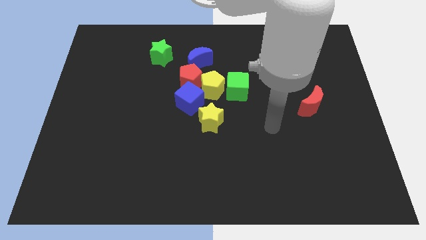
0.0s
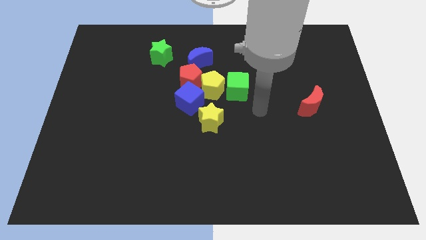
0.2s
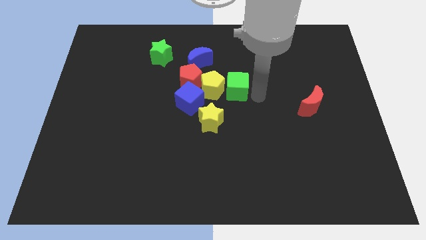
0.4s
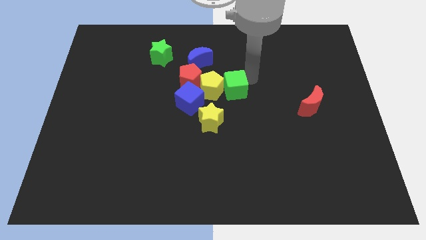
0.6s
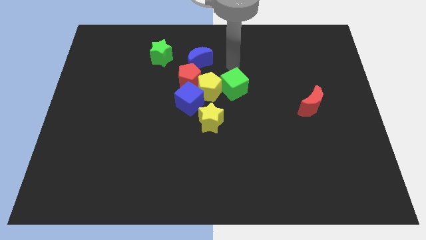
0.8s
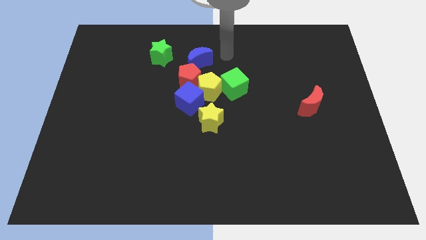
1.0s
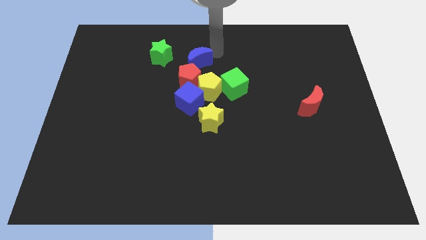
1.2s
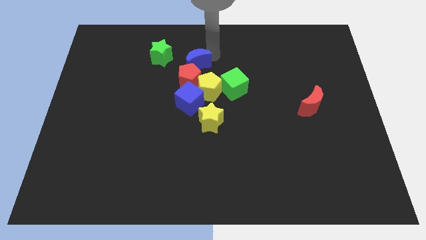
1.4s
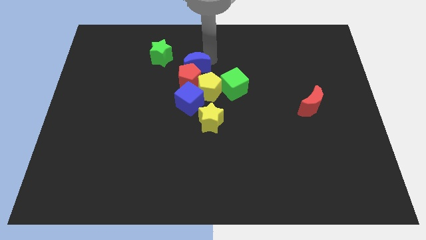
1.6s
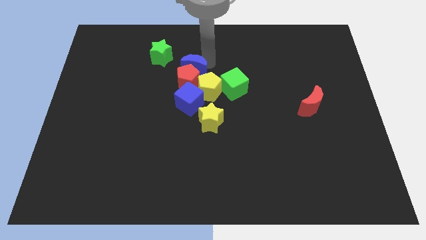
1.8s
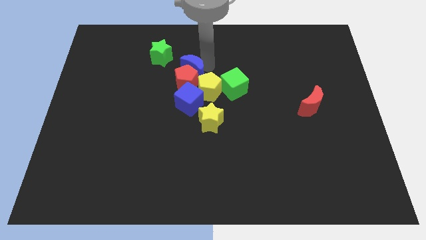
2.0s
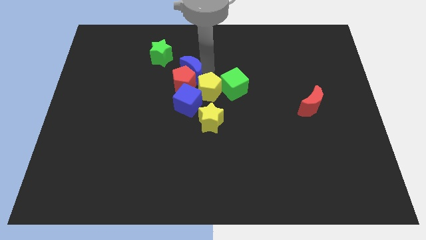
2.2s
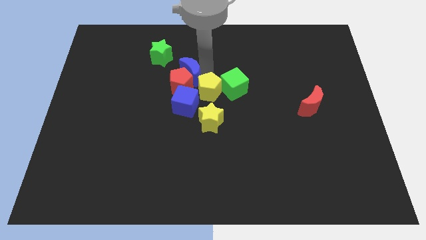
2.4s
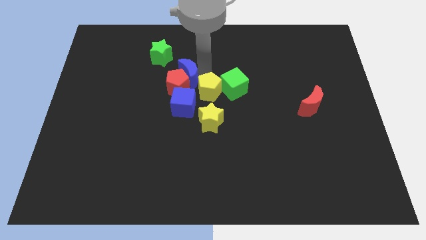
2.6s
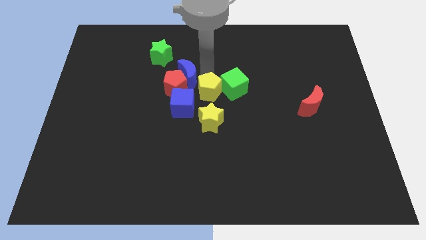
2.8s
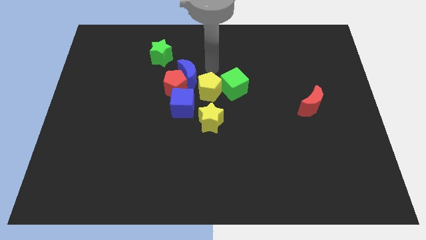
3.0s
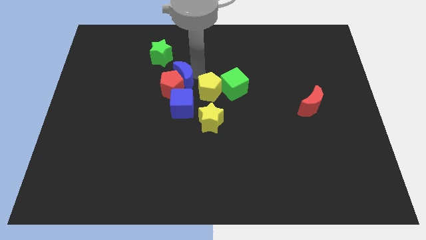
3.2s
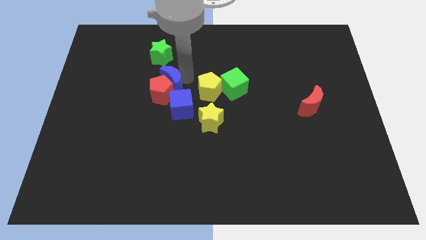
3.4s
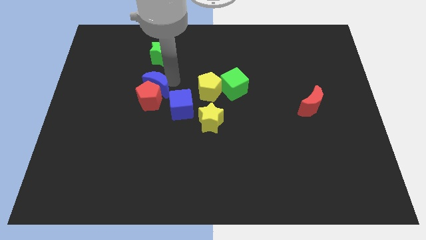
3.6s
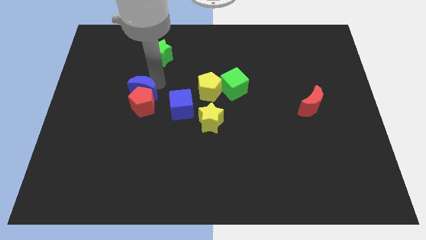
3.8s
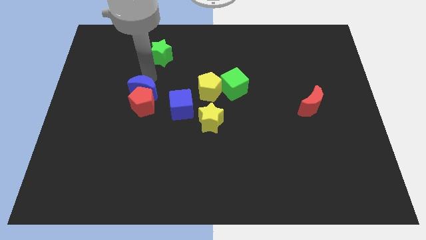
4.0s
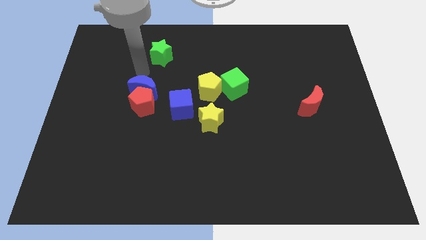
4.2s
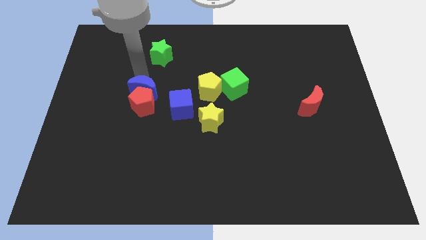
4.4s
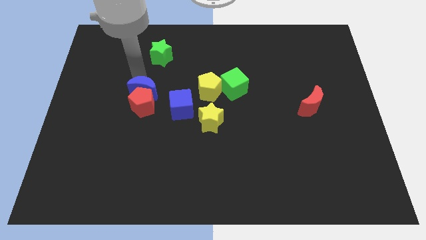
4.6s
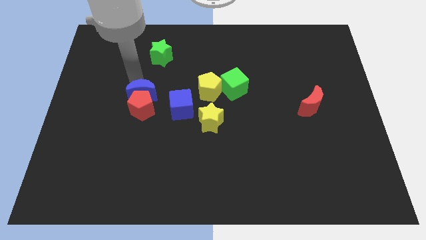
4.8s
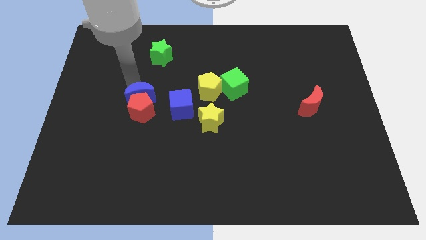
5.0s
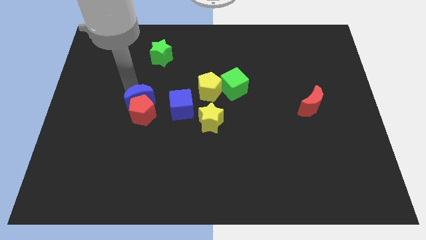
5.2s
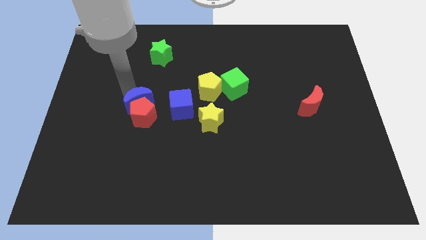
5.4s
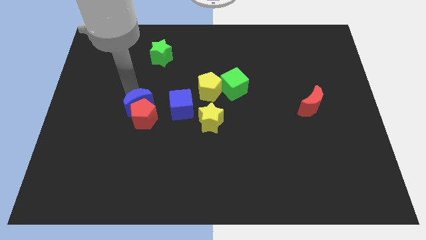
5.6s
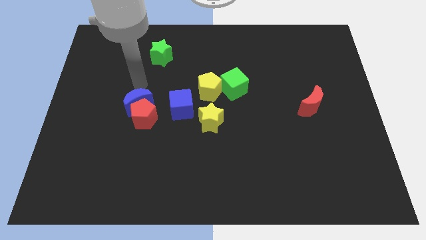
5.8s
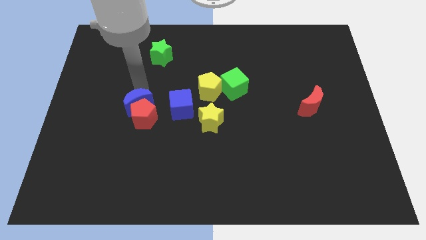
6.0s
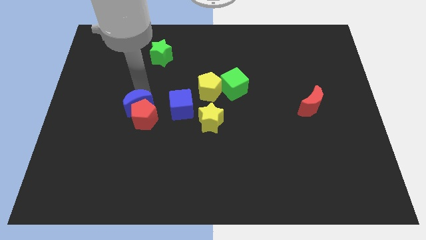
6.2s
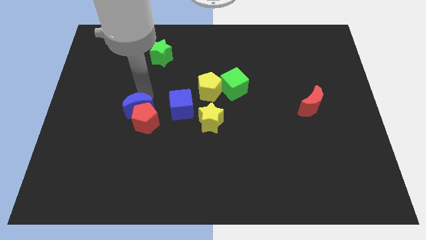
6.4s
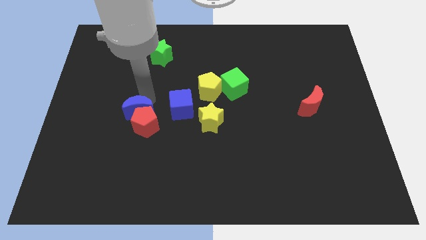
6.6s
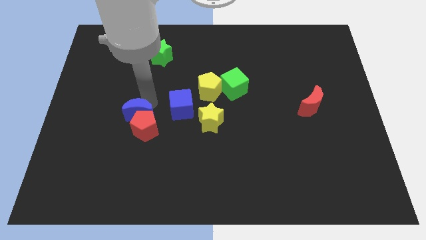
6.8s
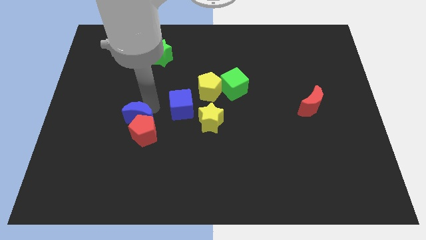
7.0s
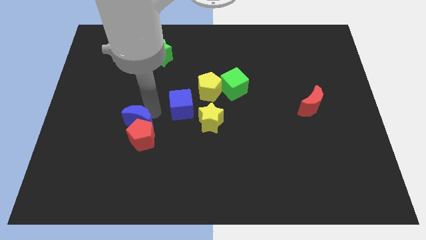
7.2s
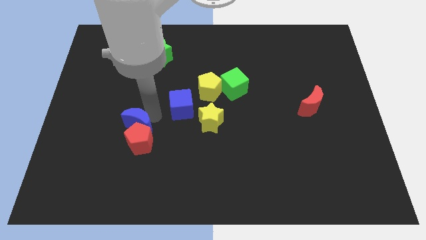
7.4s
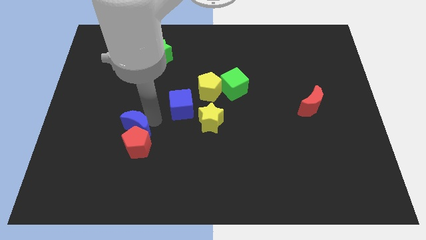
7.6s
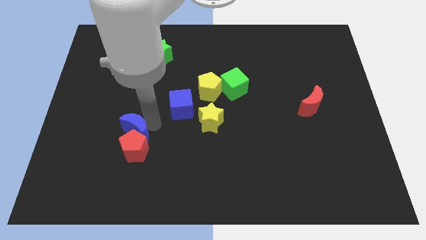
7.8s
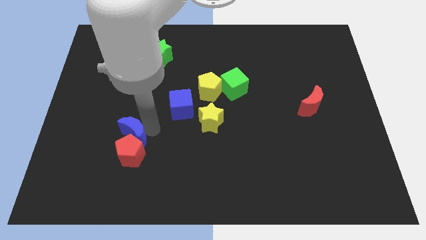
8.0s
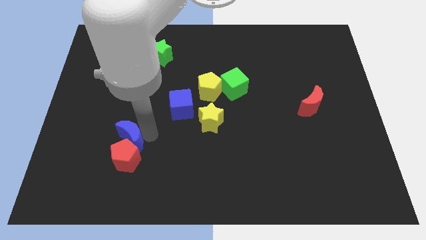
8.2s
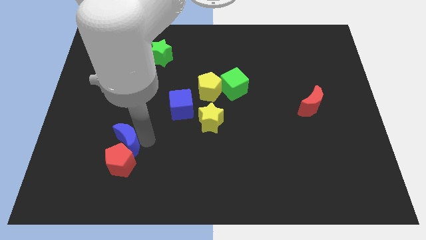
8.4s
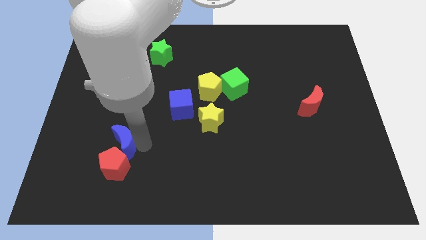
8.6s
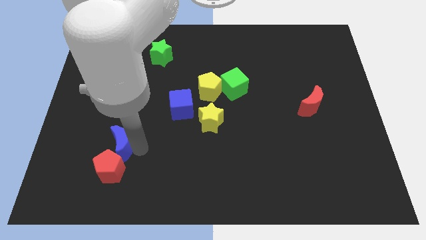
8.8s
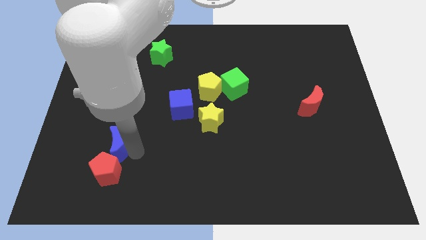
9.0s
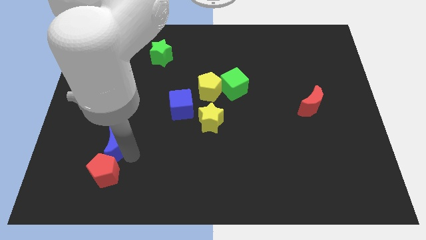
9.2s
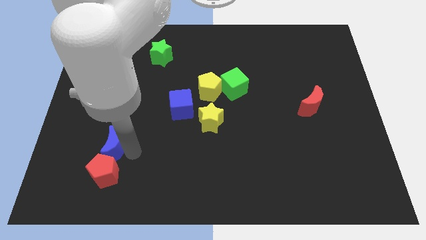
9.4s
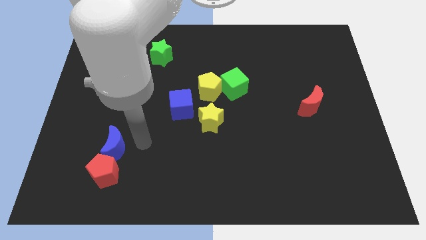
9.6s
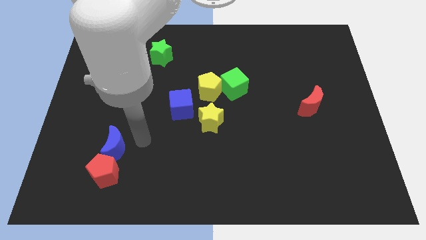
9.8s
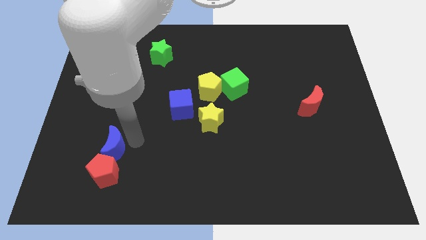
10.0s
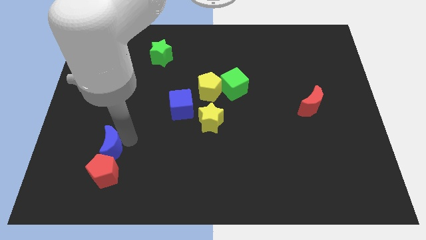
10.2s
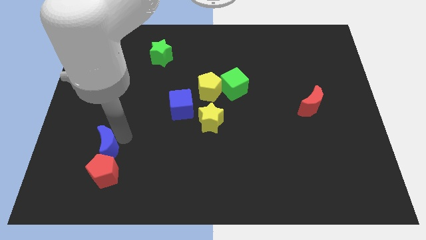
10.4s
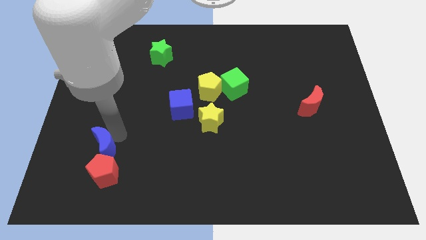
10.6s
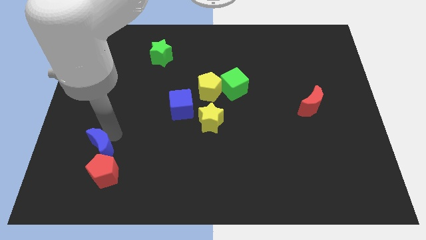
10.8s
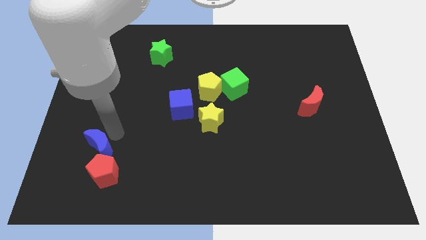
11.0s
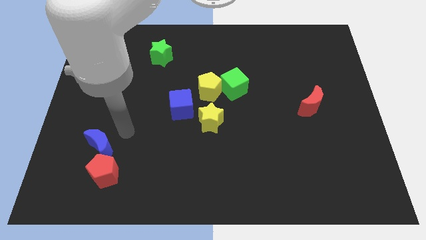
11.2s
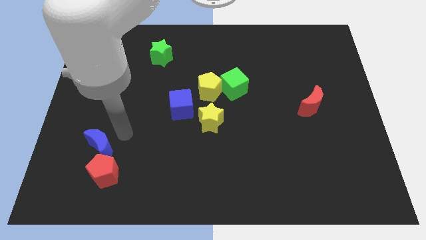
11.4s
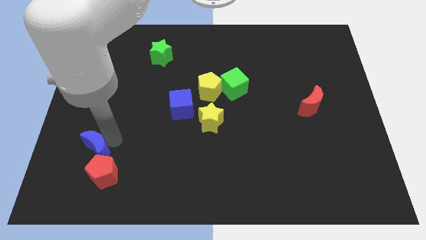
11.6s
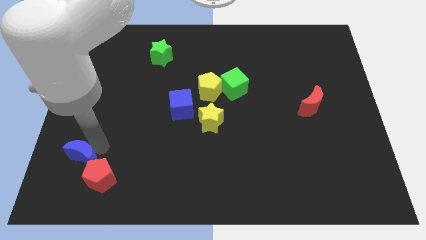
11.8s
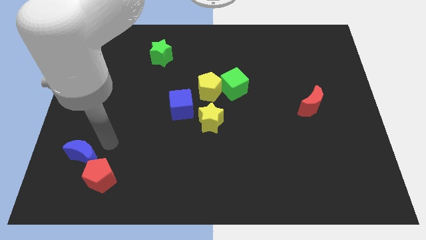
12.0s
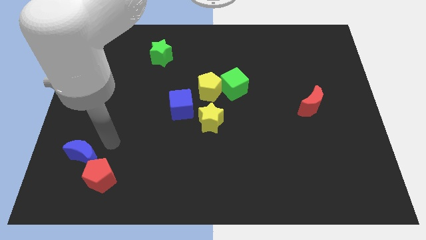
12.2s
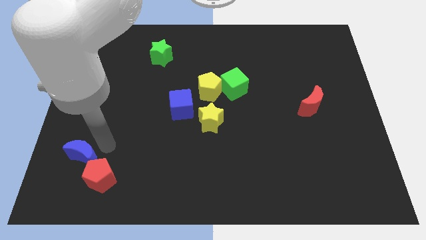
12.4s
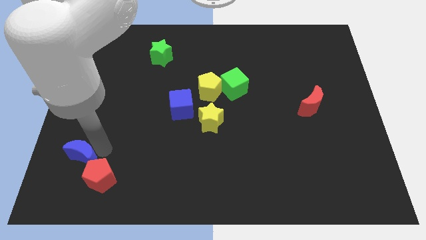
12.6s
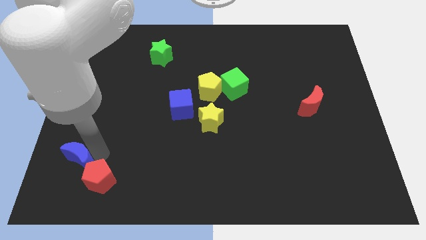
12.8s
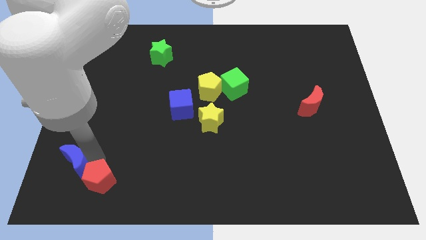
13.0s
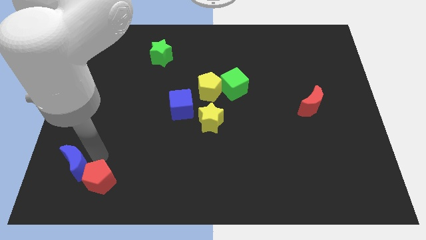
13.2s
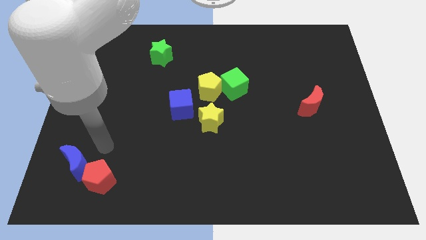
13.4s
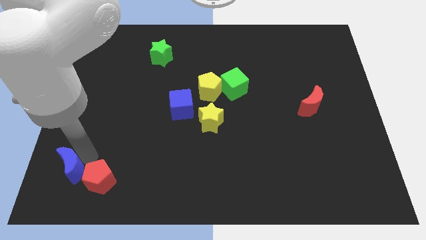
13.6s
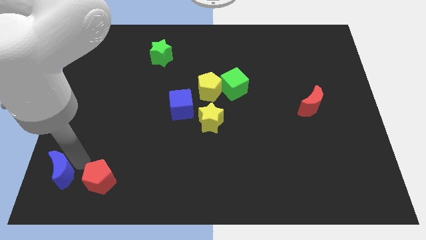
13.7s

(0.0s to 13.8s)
slide the blue moon to the bottom left
